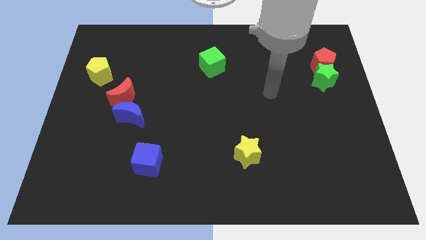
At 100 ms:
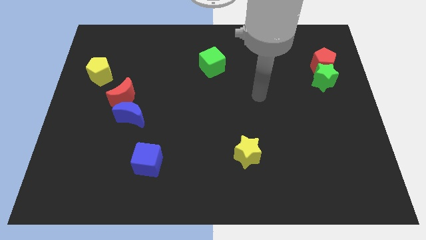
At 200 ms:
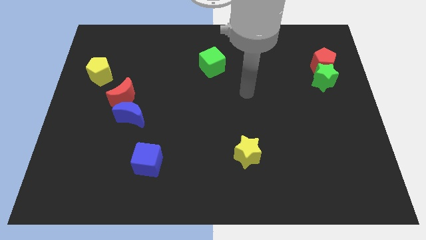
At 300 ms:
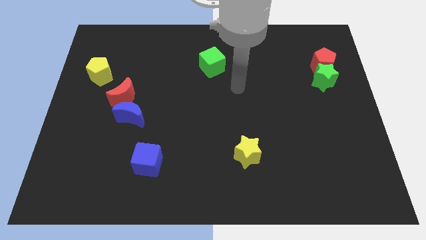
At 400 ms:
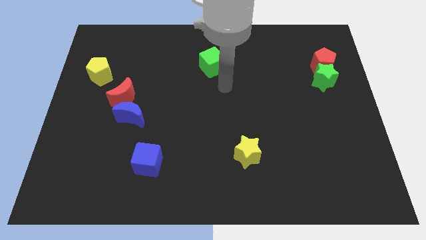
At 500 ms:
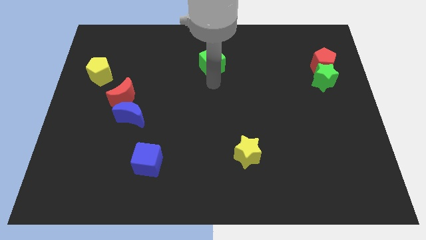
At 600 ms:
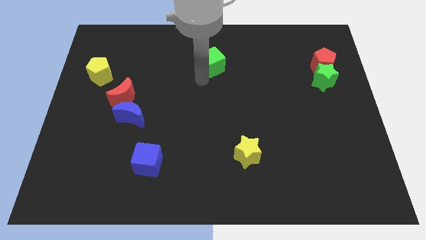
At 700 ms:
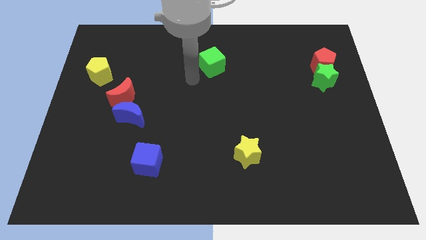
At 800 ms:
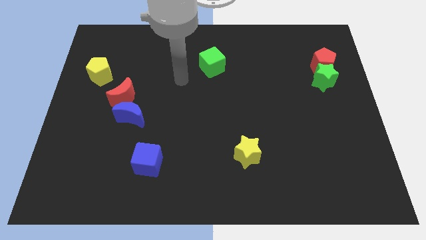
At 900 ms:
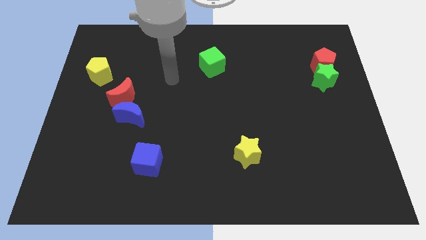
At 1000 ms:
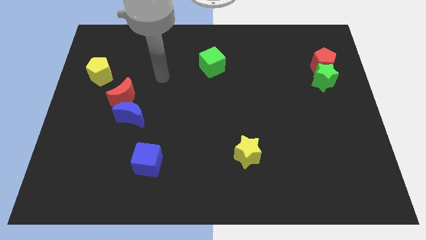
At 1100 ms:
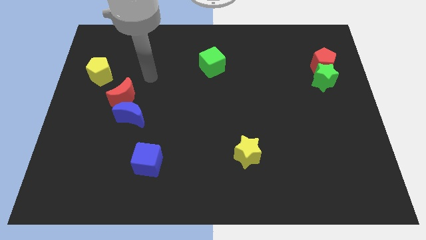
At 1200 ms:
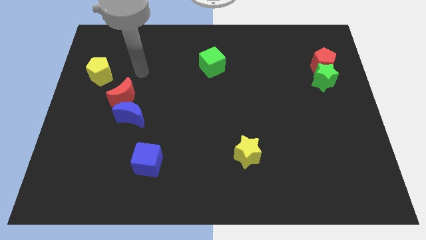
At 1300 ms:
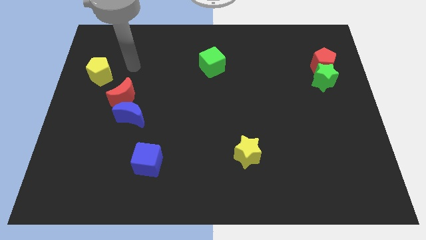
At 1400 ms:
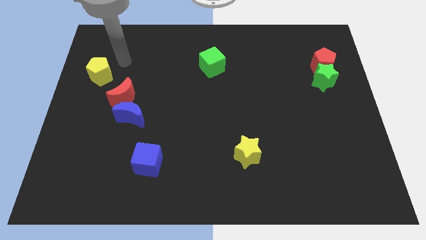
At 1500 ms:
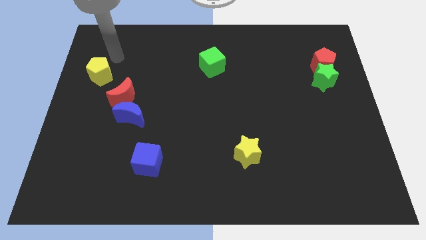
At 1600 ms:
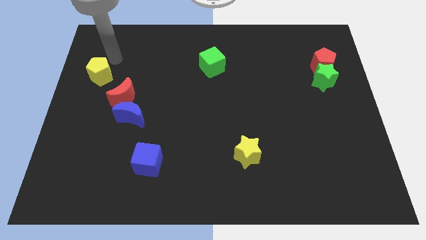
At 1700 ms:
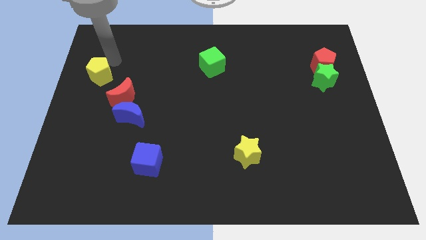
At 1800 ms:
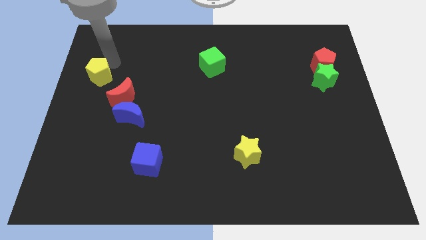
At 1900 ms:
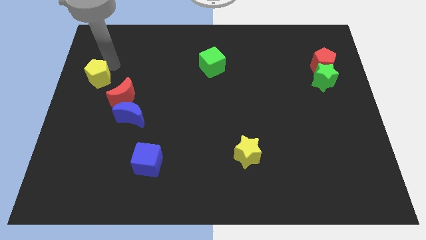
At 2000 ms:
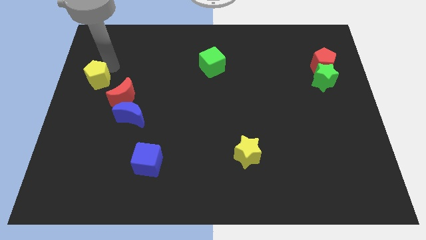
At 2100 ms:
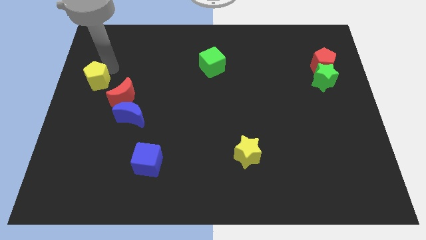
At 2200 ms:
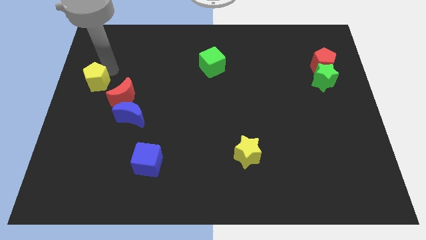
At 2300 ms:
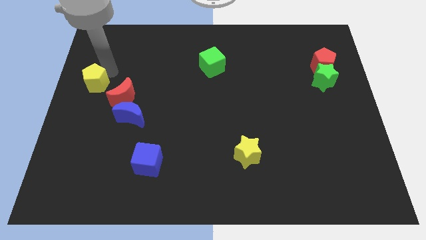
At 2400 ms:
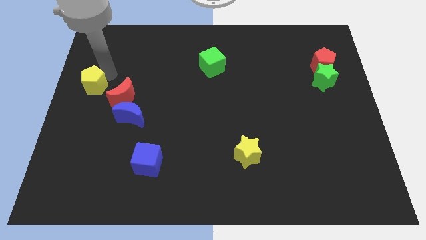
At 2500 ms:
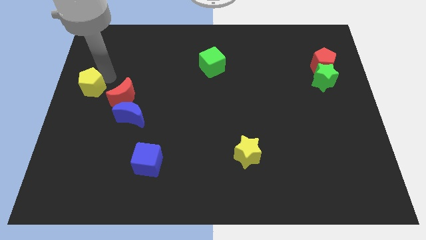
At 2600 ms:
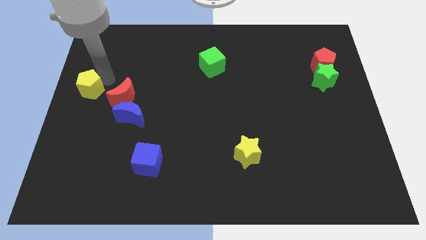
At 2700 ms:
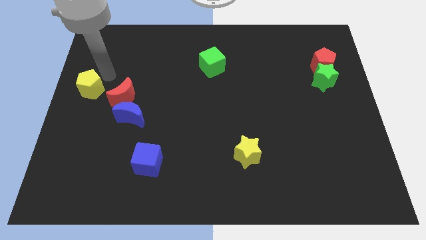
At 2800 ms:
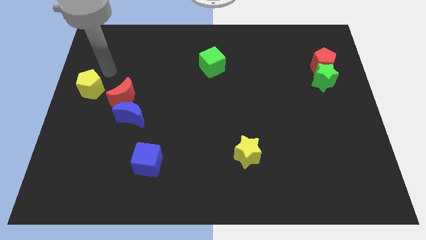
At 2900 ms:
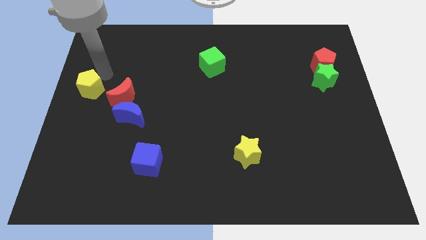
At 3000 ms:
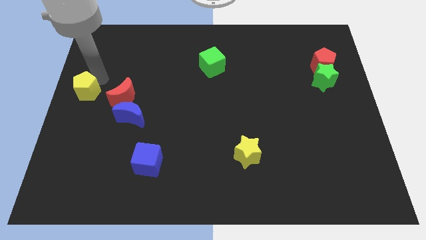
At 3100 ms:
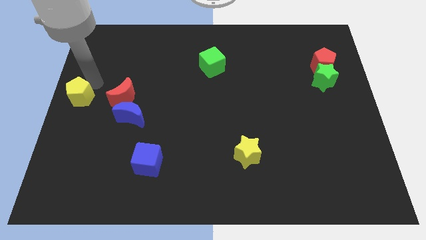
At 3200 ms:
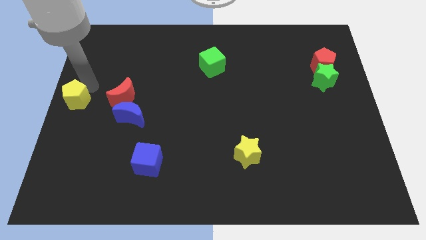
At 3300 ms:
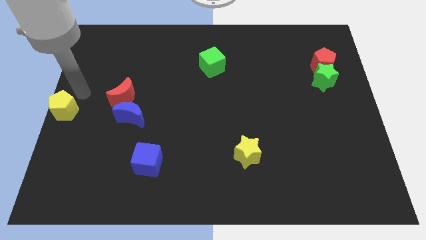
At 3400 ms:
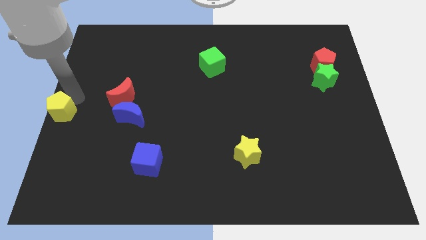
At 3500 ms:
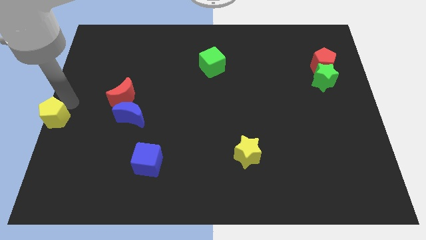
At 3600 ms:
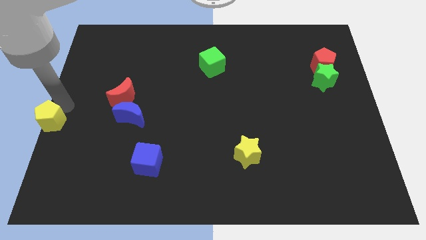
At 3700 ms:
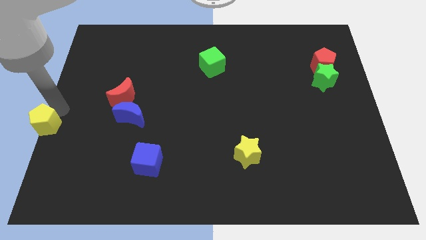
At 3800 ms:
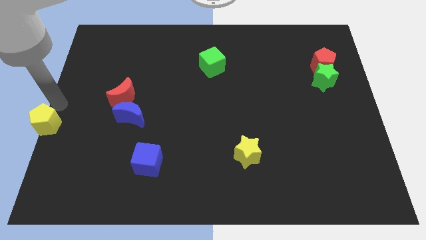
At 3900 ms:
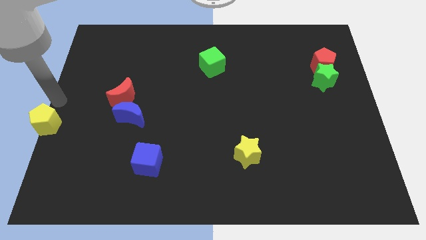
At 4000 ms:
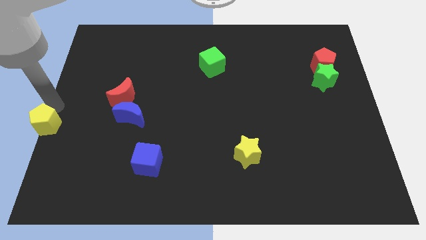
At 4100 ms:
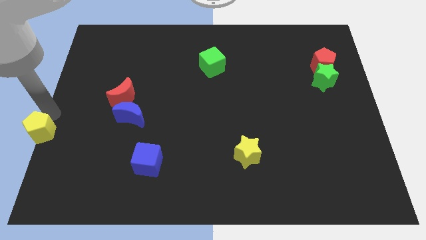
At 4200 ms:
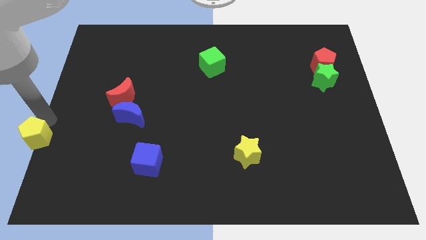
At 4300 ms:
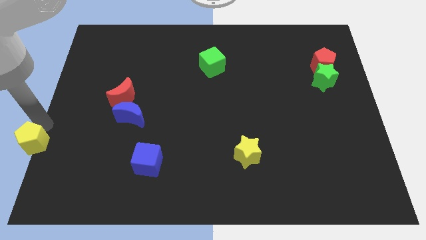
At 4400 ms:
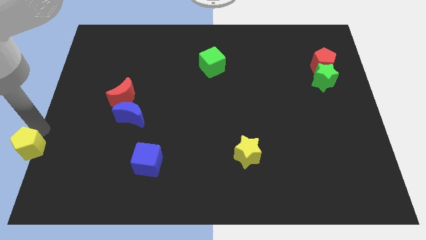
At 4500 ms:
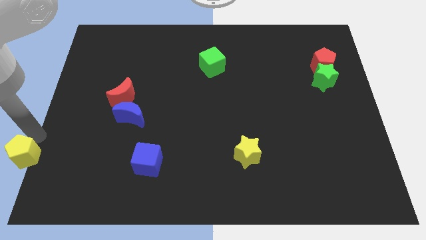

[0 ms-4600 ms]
slide the yellow pentagon to the bottom left corner

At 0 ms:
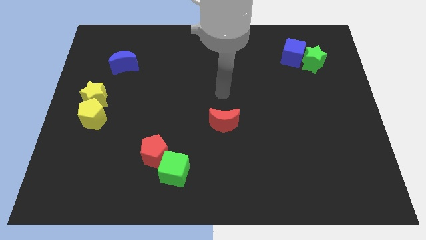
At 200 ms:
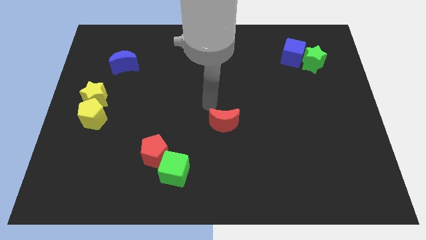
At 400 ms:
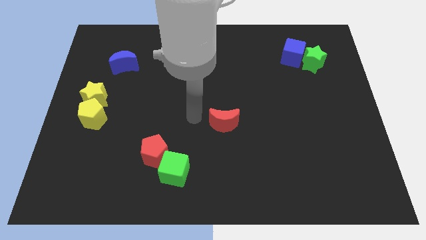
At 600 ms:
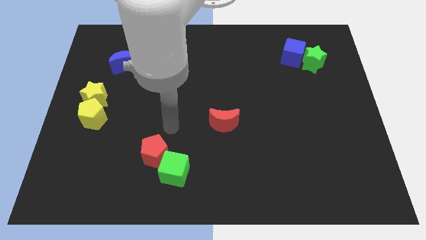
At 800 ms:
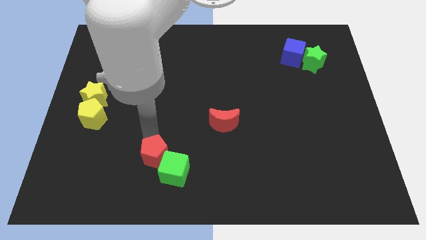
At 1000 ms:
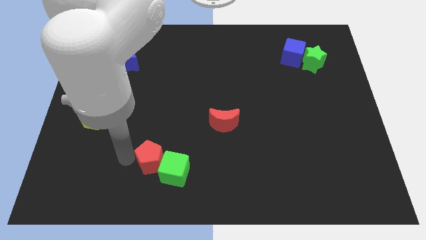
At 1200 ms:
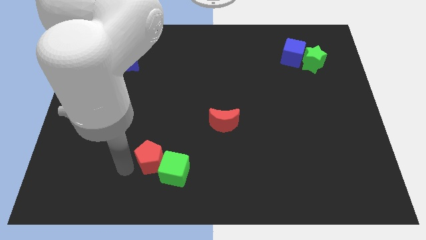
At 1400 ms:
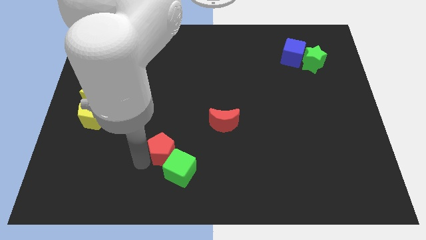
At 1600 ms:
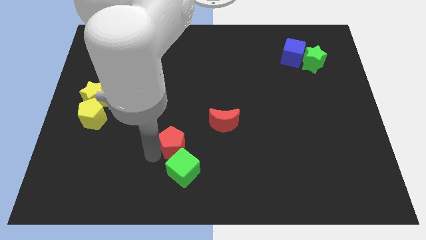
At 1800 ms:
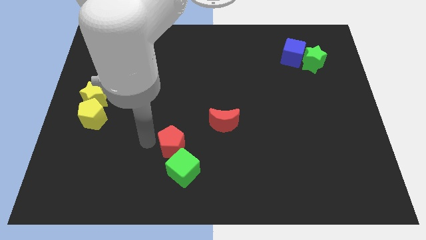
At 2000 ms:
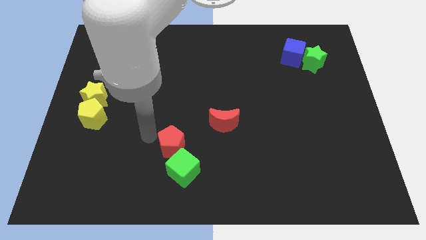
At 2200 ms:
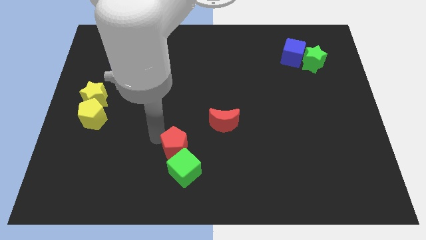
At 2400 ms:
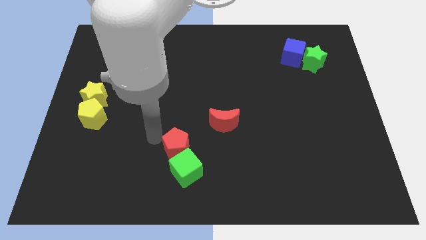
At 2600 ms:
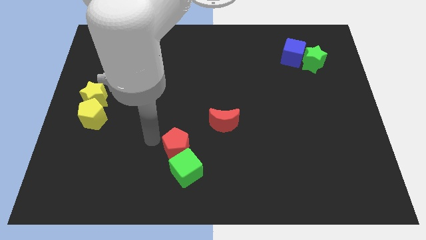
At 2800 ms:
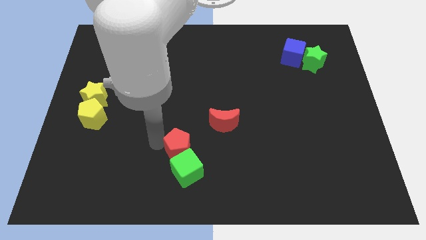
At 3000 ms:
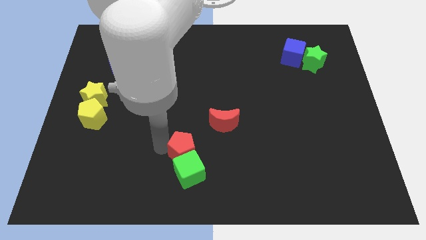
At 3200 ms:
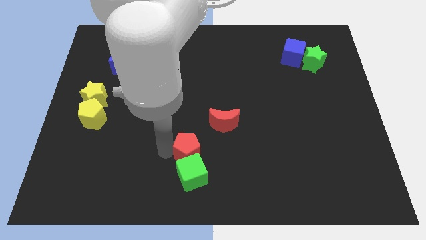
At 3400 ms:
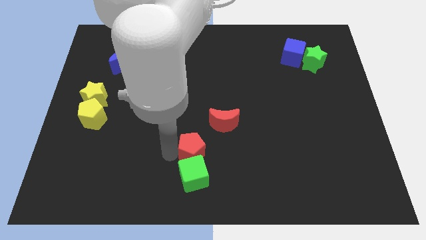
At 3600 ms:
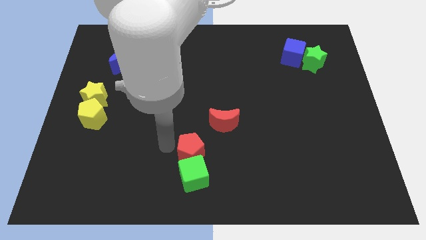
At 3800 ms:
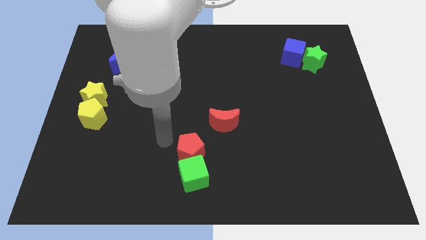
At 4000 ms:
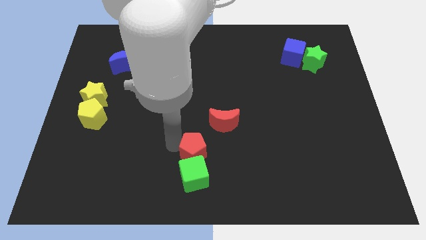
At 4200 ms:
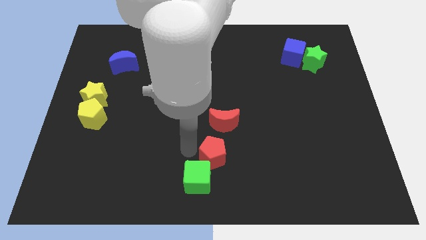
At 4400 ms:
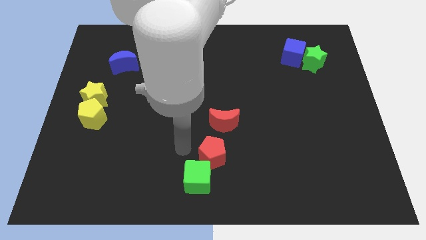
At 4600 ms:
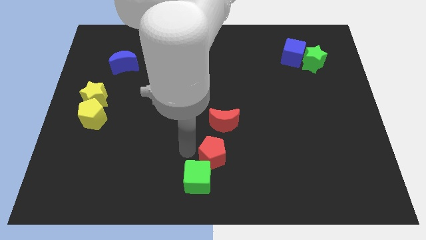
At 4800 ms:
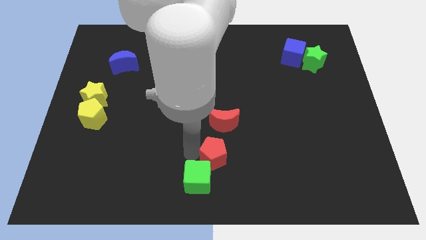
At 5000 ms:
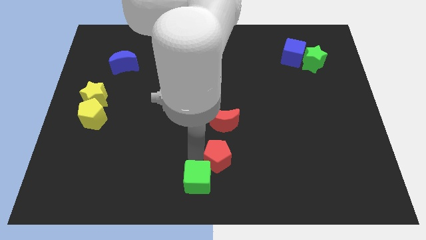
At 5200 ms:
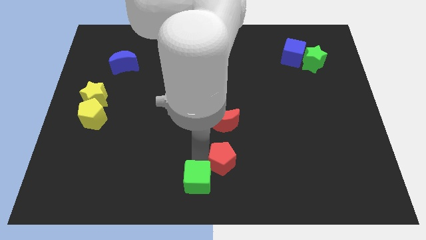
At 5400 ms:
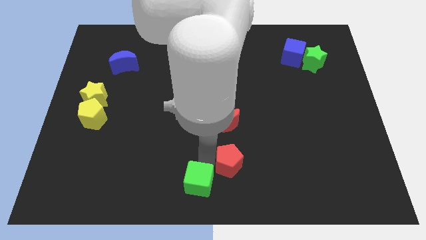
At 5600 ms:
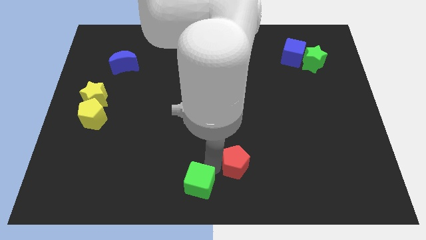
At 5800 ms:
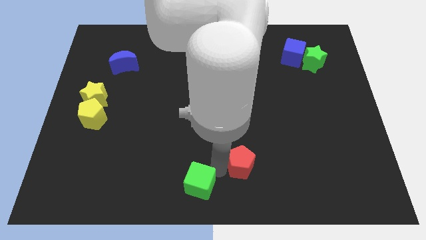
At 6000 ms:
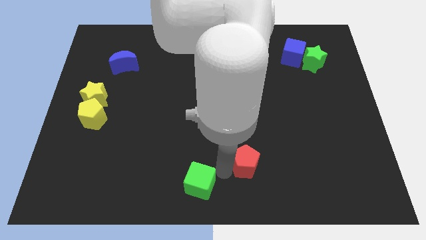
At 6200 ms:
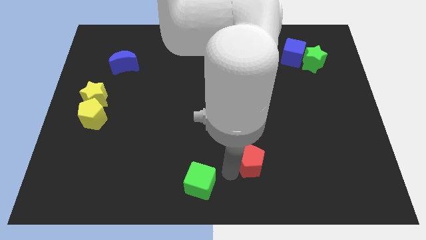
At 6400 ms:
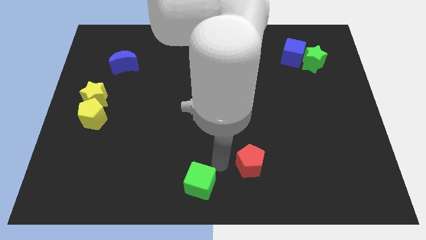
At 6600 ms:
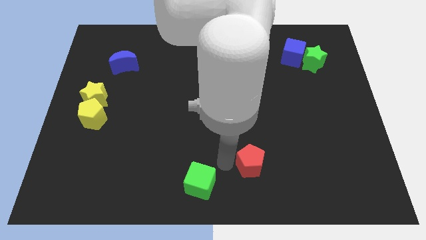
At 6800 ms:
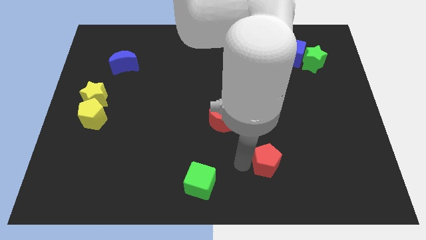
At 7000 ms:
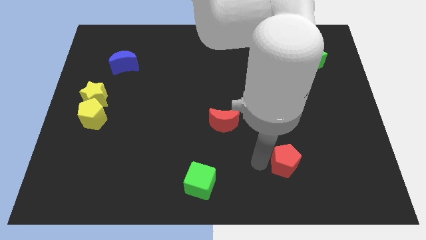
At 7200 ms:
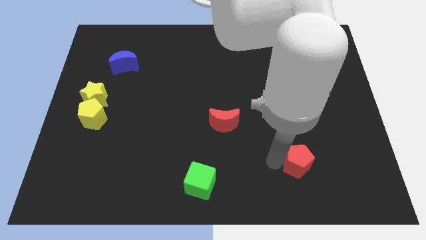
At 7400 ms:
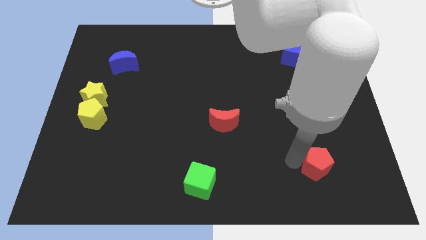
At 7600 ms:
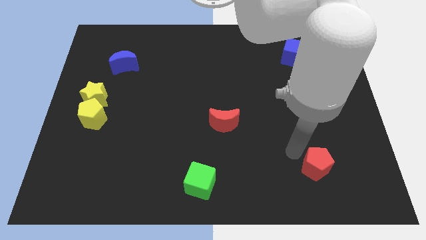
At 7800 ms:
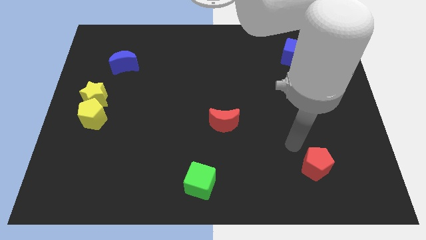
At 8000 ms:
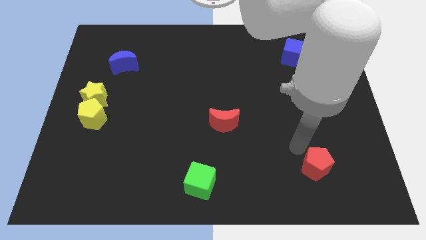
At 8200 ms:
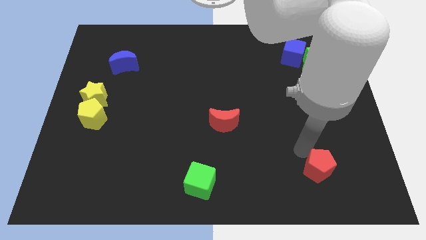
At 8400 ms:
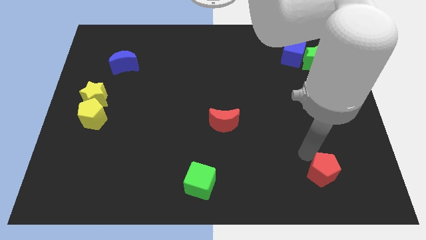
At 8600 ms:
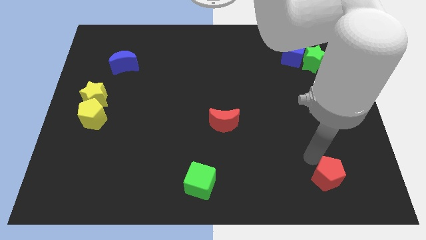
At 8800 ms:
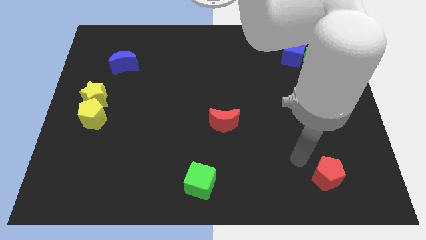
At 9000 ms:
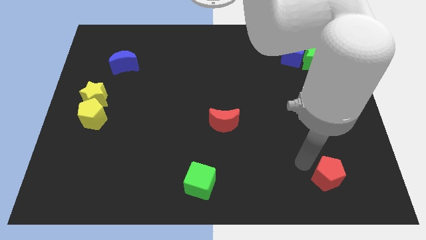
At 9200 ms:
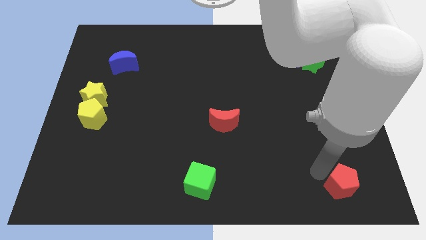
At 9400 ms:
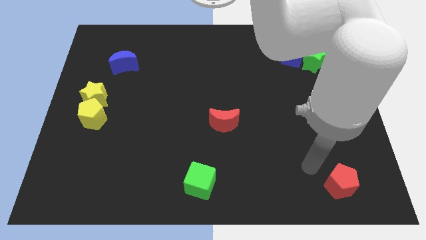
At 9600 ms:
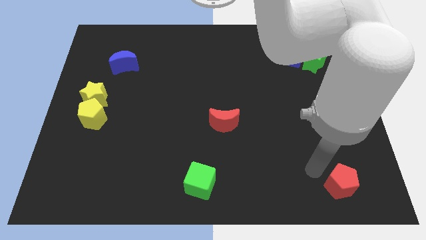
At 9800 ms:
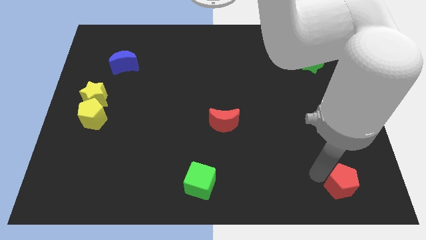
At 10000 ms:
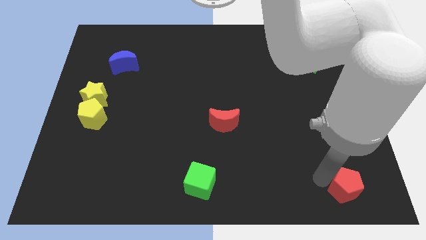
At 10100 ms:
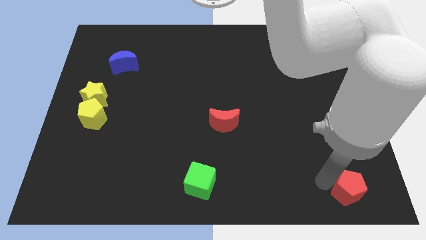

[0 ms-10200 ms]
slide the red pentagon to the bottom right corner
